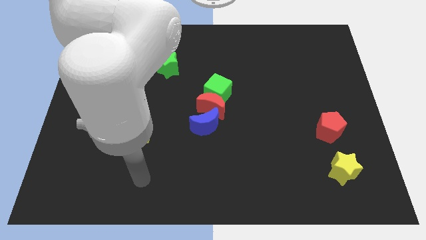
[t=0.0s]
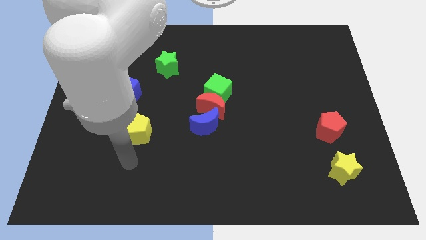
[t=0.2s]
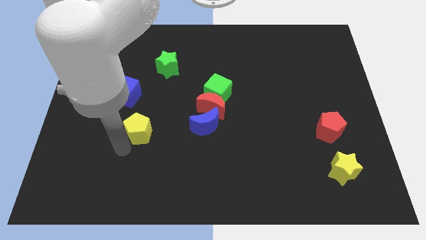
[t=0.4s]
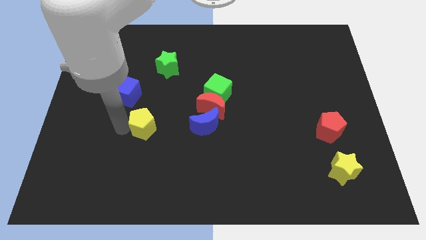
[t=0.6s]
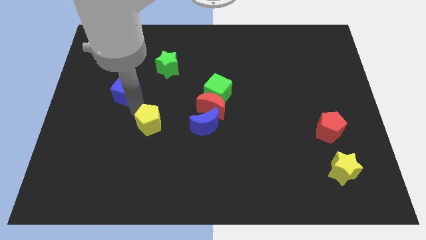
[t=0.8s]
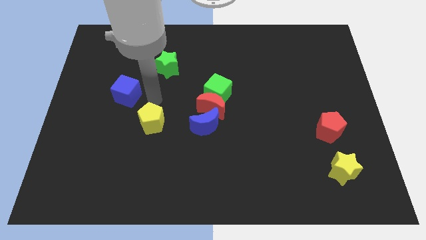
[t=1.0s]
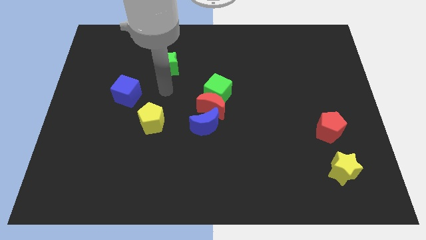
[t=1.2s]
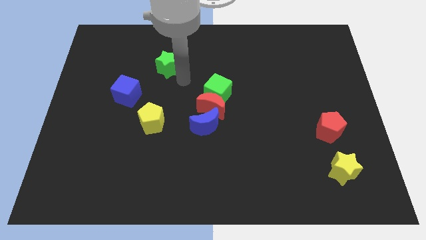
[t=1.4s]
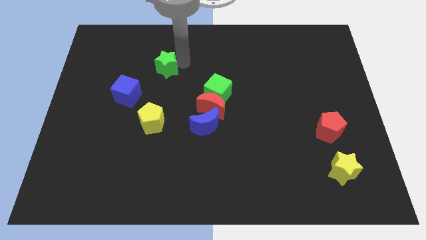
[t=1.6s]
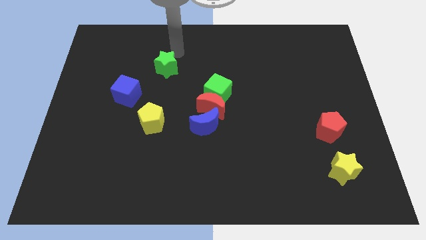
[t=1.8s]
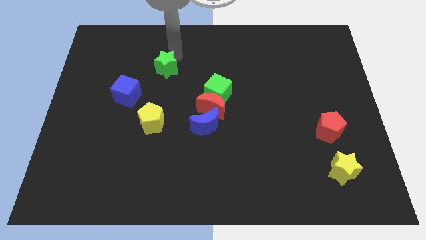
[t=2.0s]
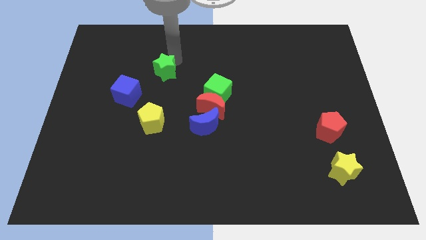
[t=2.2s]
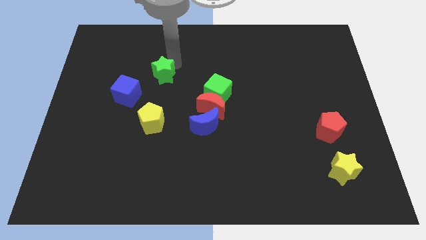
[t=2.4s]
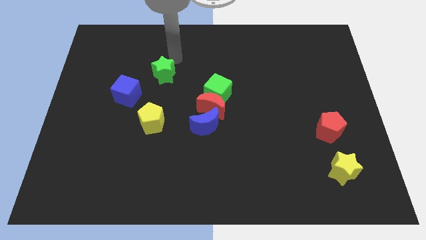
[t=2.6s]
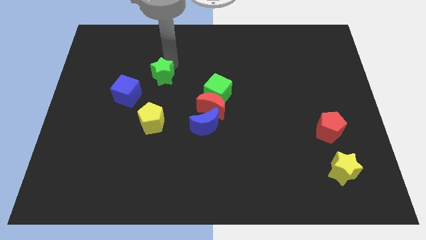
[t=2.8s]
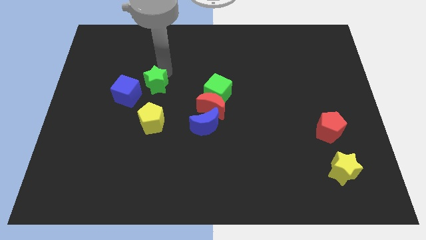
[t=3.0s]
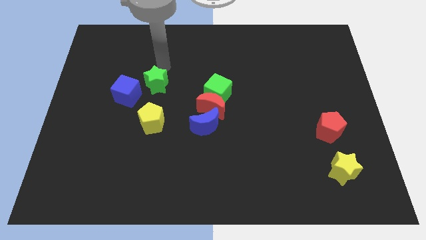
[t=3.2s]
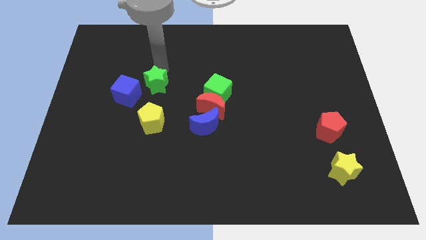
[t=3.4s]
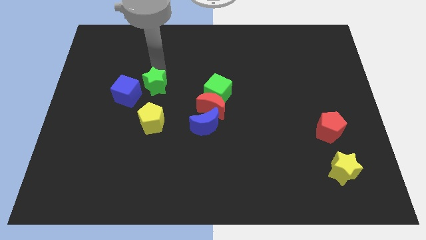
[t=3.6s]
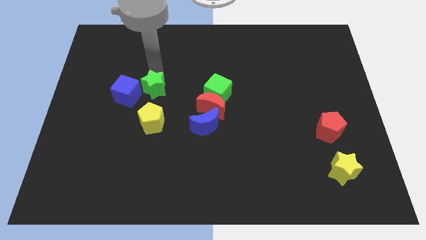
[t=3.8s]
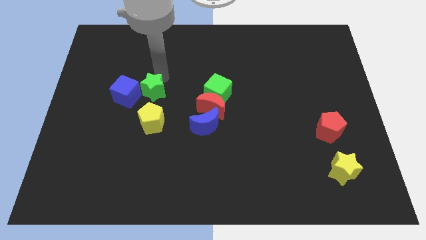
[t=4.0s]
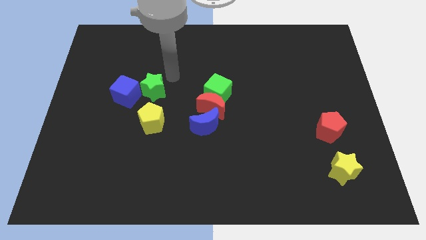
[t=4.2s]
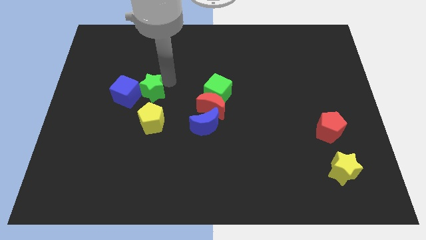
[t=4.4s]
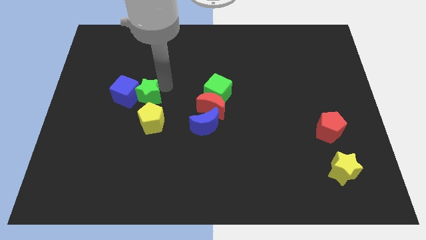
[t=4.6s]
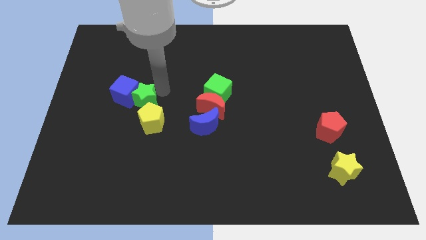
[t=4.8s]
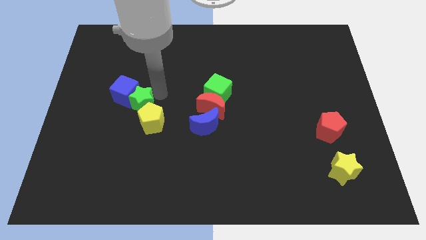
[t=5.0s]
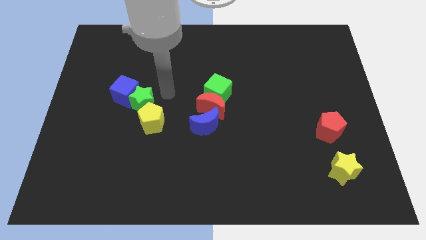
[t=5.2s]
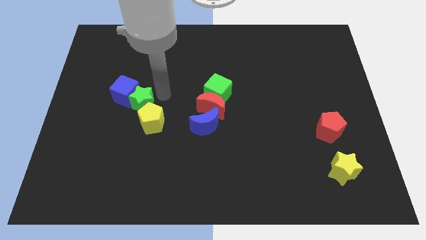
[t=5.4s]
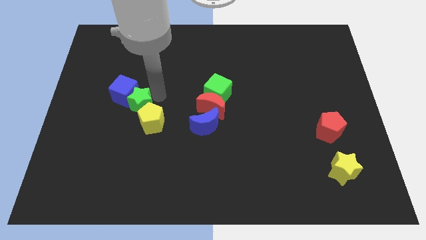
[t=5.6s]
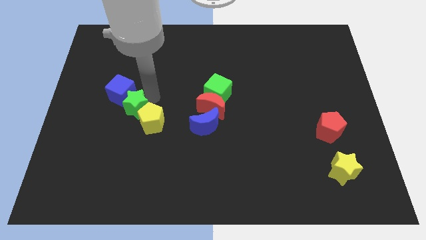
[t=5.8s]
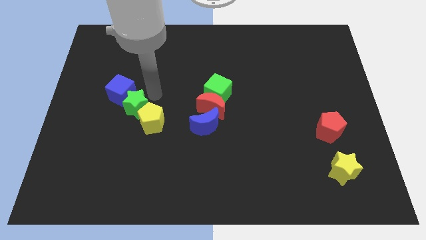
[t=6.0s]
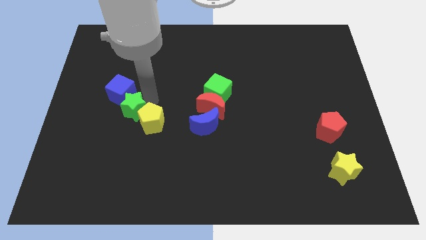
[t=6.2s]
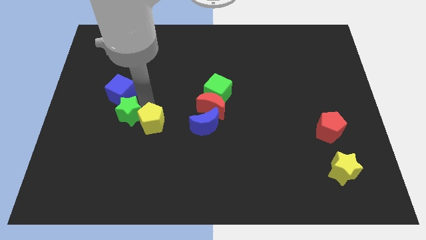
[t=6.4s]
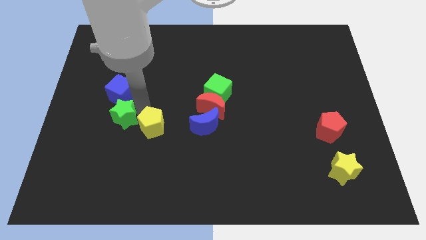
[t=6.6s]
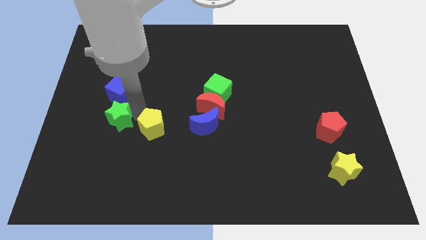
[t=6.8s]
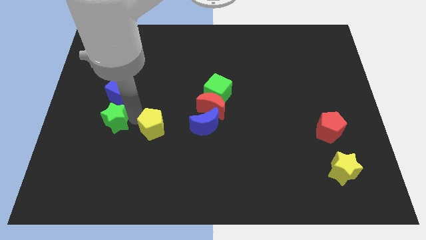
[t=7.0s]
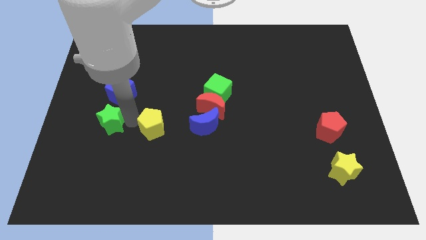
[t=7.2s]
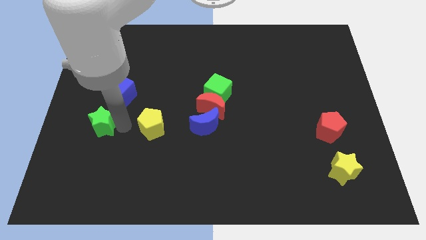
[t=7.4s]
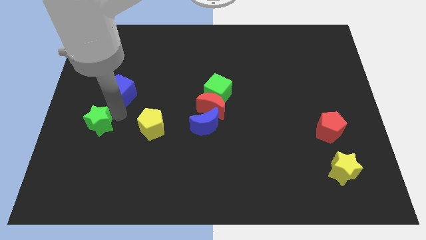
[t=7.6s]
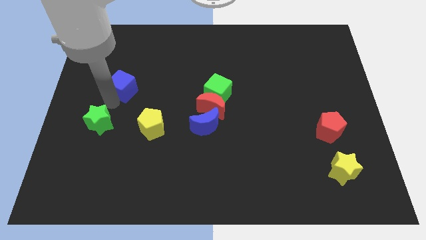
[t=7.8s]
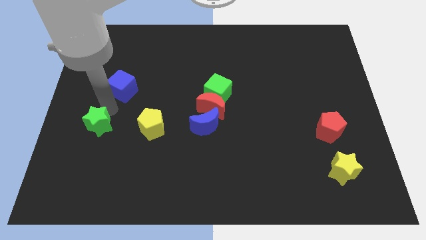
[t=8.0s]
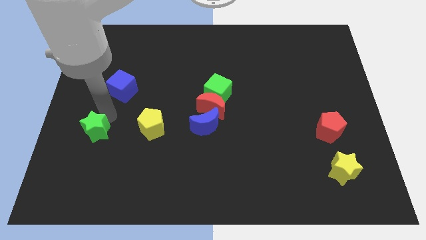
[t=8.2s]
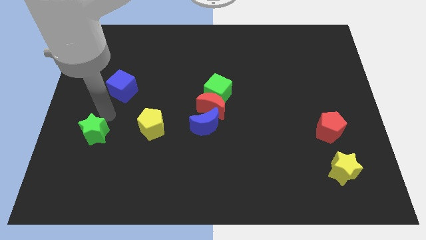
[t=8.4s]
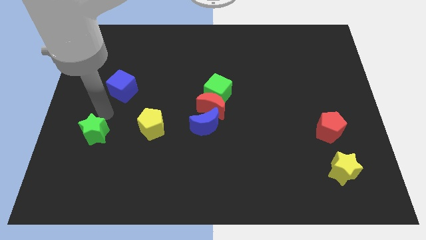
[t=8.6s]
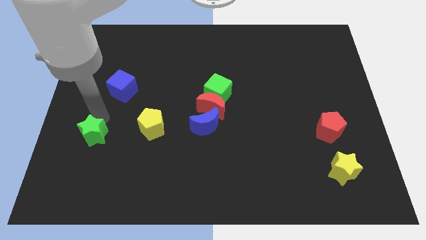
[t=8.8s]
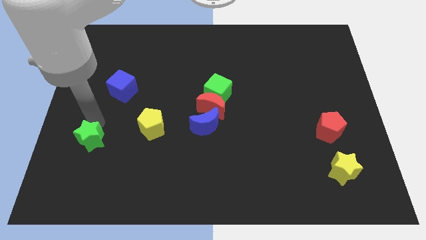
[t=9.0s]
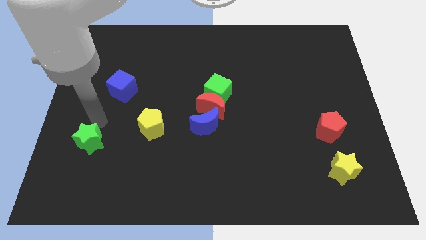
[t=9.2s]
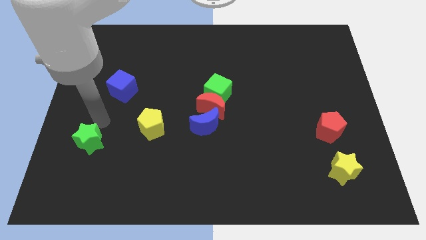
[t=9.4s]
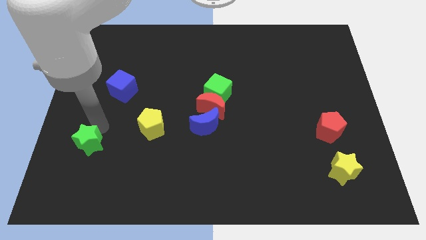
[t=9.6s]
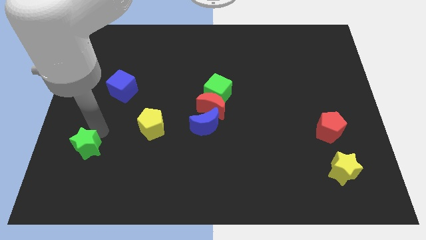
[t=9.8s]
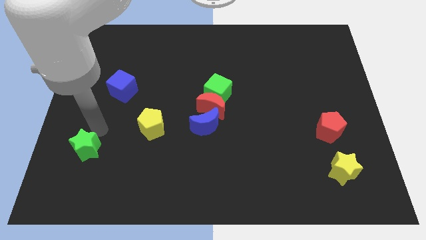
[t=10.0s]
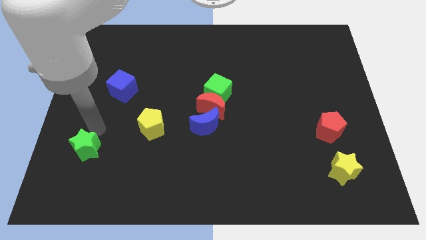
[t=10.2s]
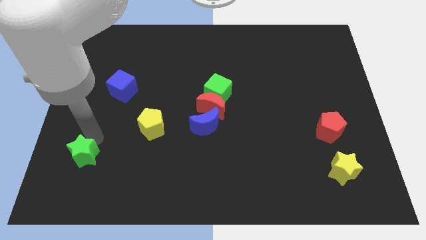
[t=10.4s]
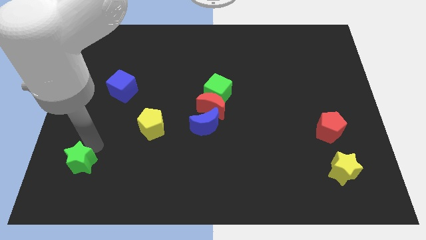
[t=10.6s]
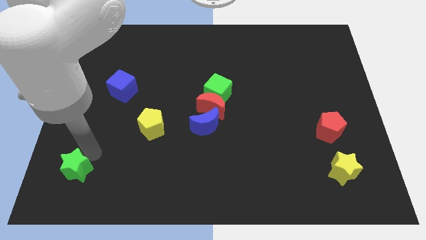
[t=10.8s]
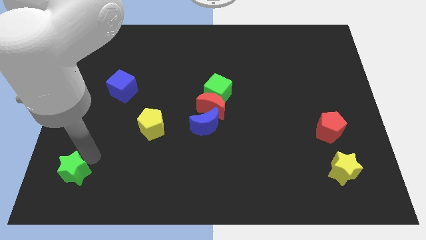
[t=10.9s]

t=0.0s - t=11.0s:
push the green star to the lower left corner
